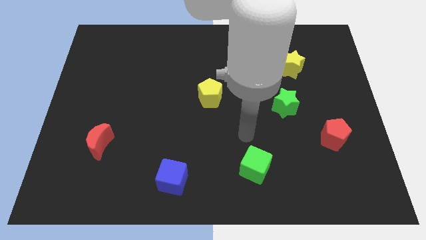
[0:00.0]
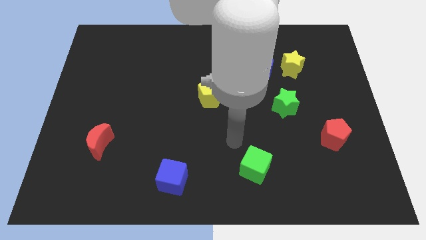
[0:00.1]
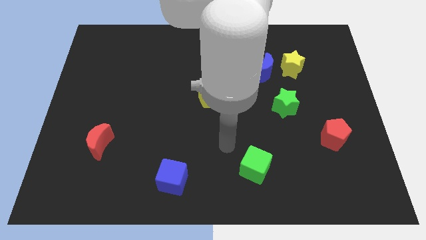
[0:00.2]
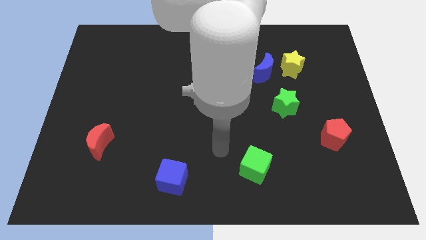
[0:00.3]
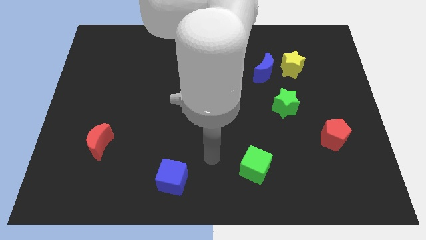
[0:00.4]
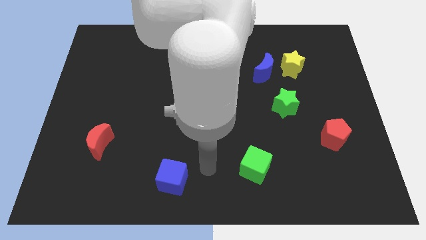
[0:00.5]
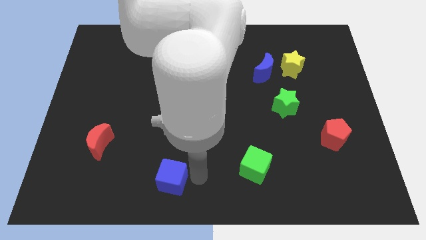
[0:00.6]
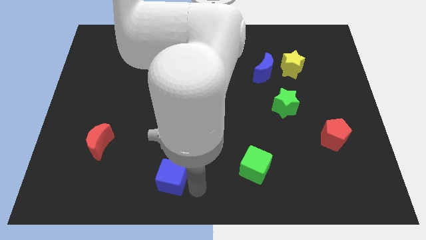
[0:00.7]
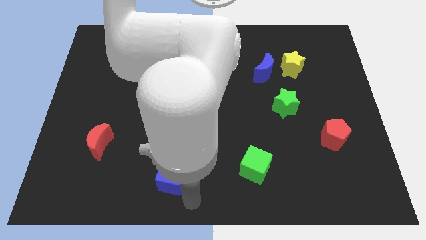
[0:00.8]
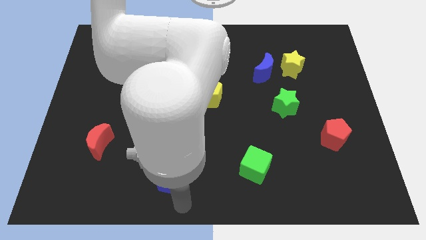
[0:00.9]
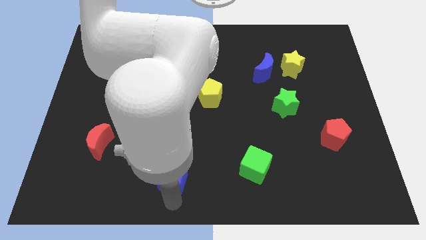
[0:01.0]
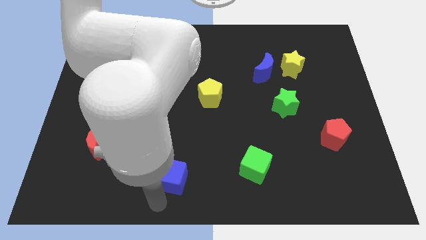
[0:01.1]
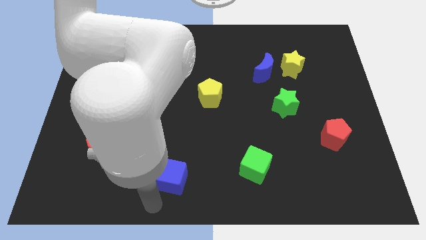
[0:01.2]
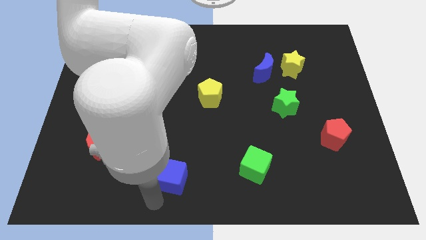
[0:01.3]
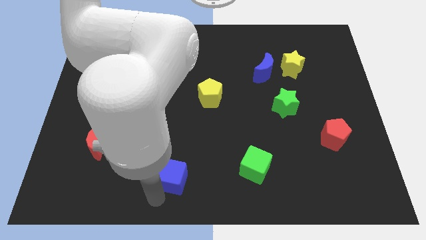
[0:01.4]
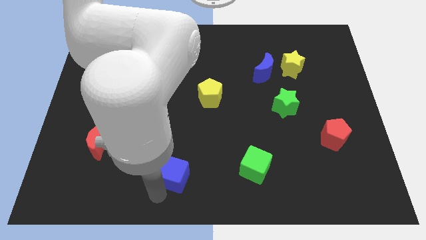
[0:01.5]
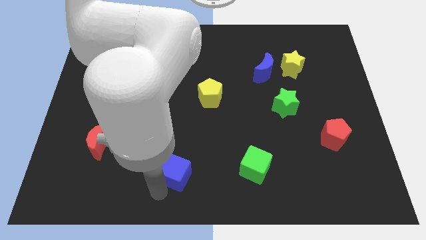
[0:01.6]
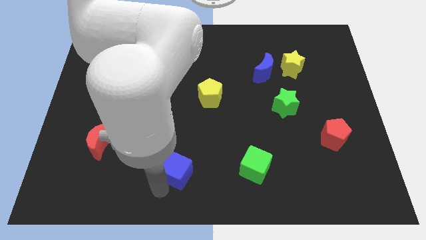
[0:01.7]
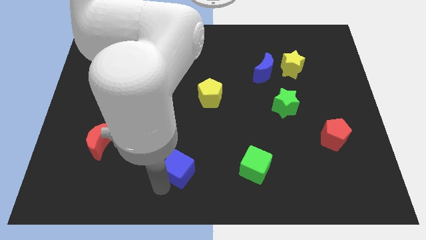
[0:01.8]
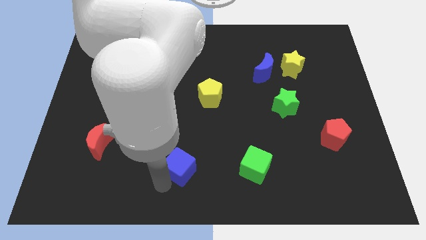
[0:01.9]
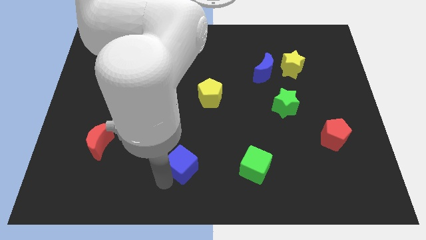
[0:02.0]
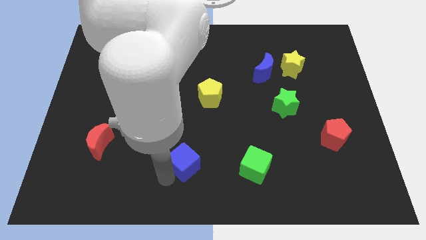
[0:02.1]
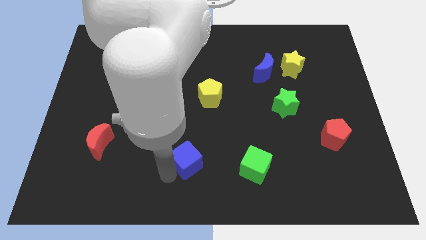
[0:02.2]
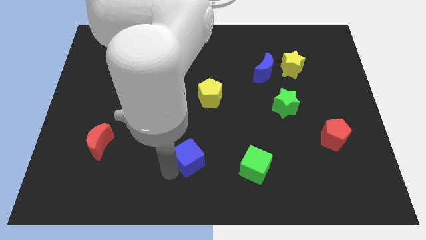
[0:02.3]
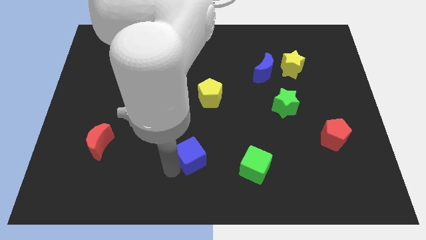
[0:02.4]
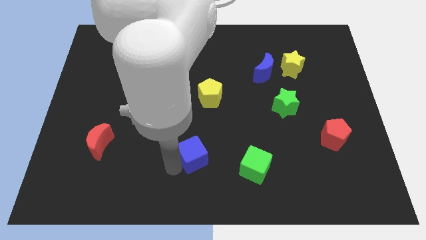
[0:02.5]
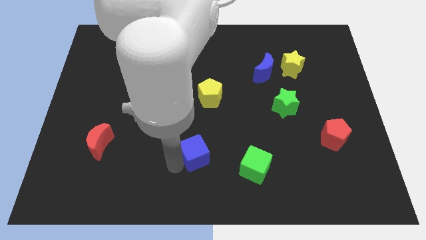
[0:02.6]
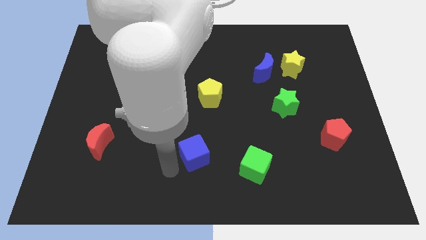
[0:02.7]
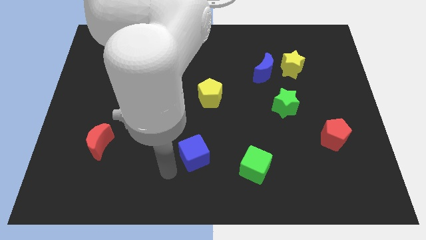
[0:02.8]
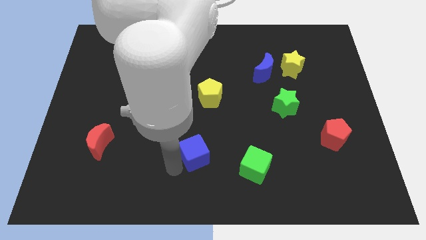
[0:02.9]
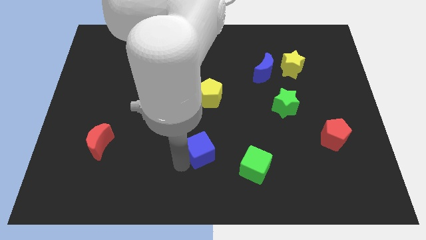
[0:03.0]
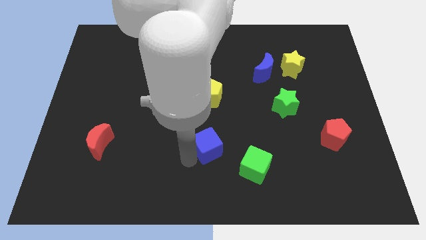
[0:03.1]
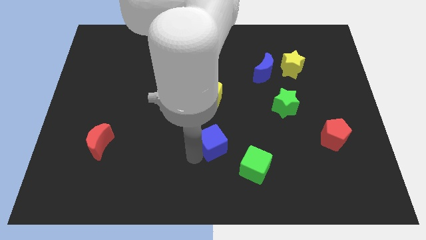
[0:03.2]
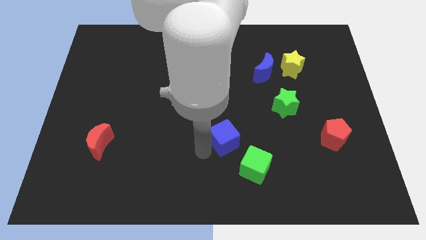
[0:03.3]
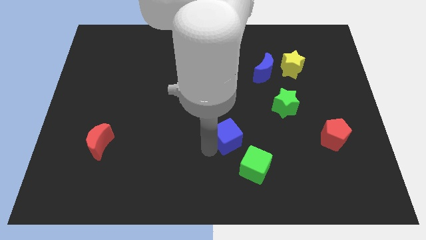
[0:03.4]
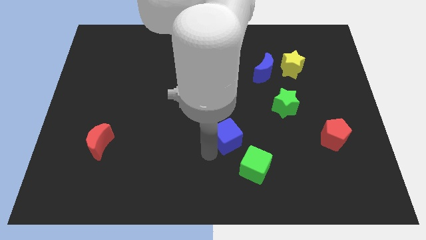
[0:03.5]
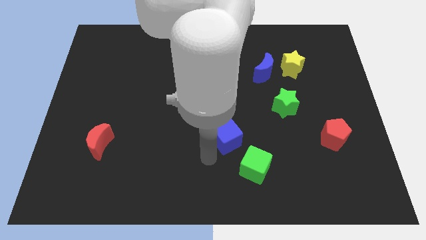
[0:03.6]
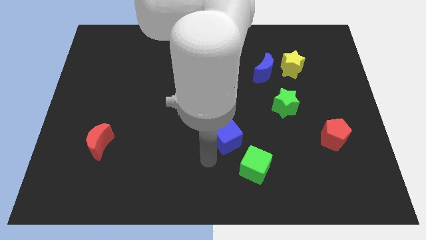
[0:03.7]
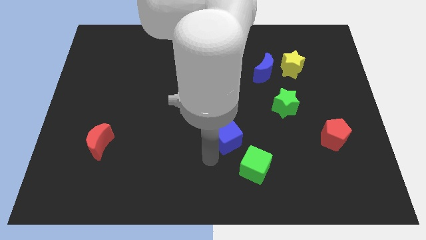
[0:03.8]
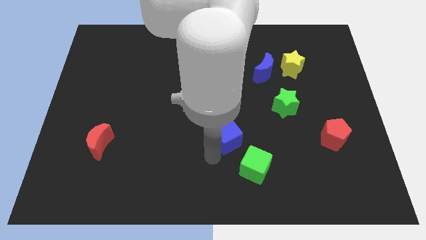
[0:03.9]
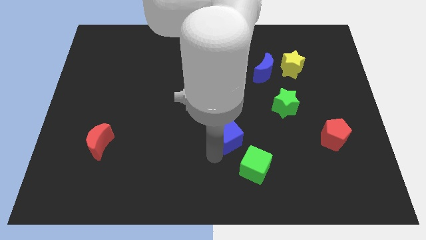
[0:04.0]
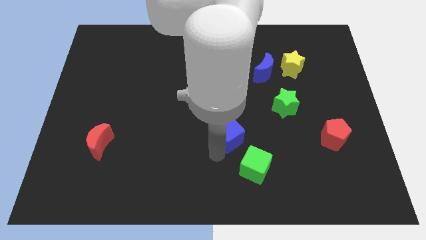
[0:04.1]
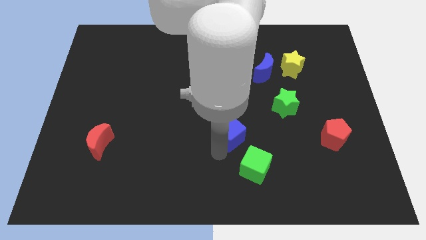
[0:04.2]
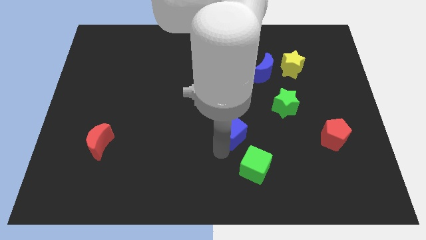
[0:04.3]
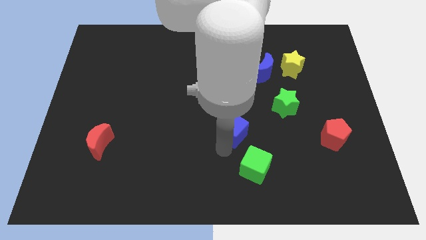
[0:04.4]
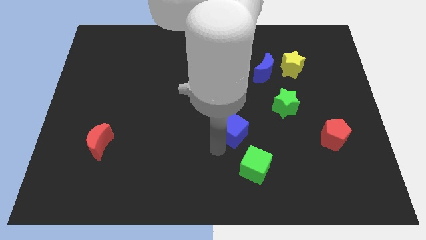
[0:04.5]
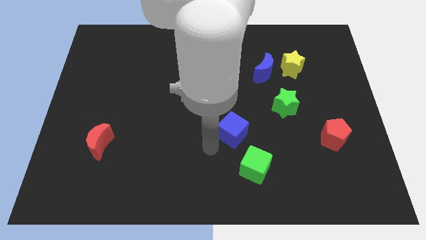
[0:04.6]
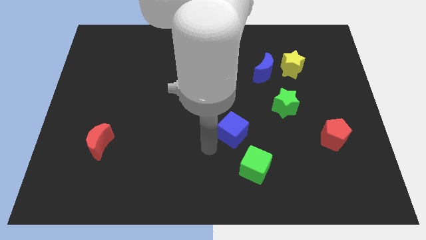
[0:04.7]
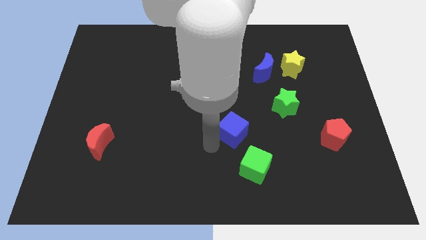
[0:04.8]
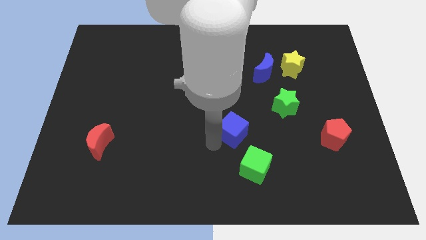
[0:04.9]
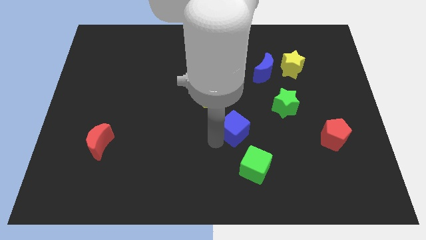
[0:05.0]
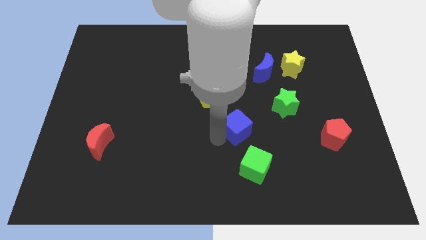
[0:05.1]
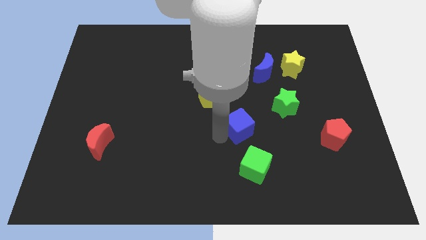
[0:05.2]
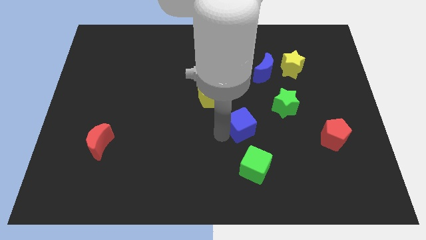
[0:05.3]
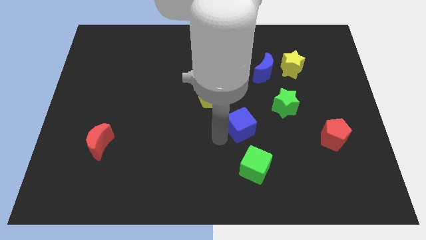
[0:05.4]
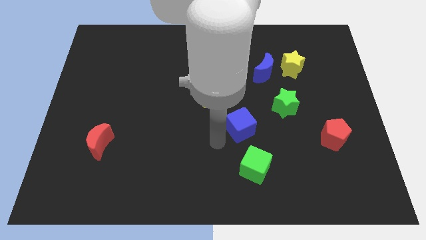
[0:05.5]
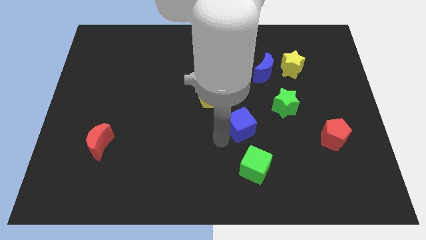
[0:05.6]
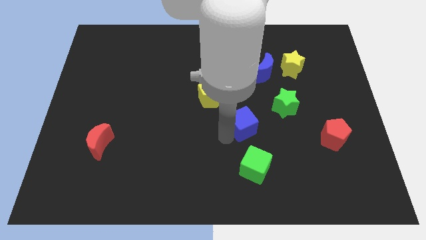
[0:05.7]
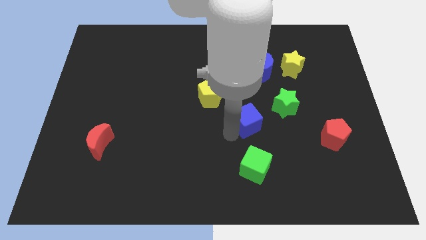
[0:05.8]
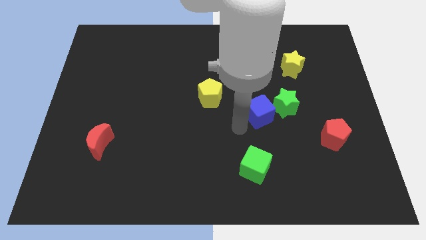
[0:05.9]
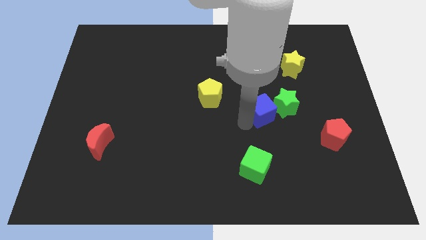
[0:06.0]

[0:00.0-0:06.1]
put the blue cube next to the green star

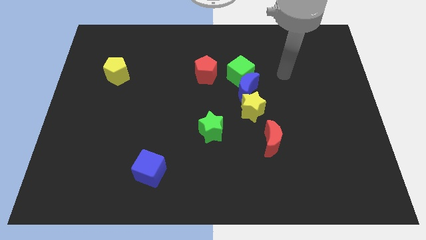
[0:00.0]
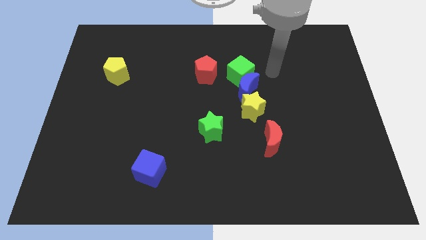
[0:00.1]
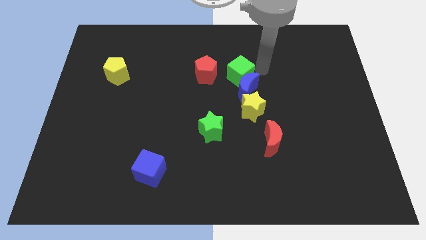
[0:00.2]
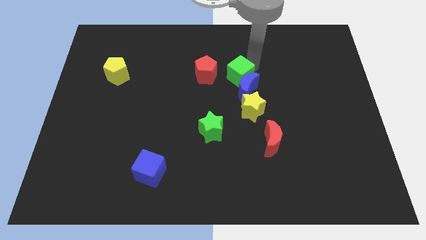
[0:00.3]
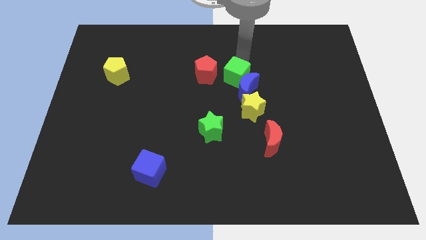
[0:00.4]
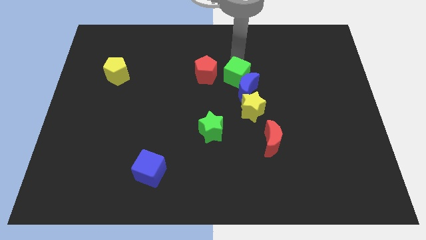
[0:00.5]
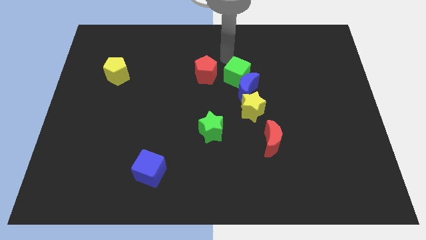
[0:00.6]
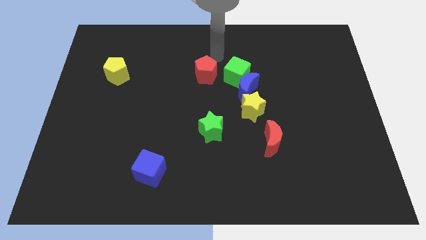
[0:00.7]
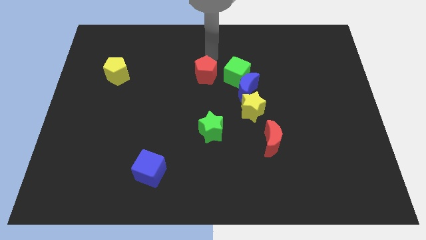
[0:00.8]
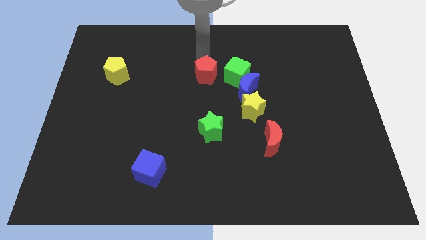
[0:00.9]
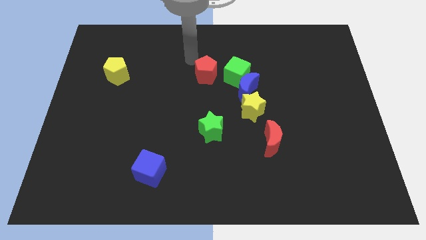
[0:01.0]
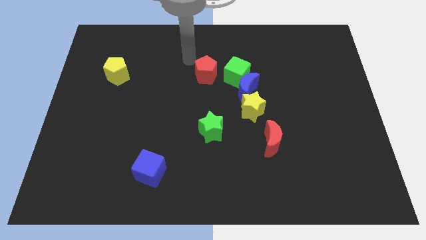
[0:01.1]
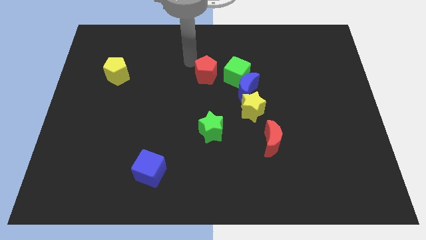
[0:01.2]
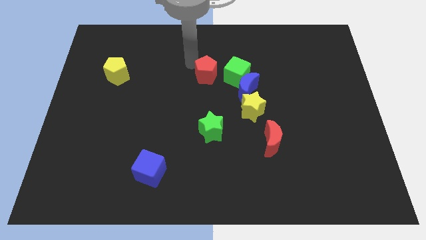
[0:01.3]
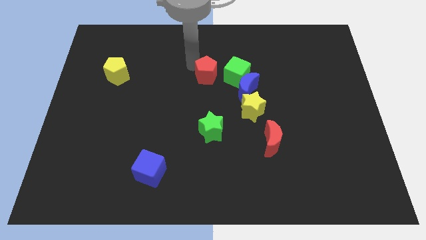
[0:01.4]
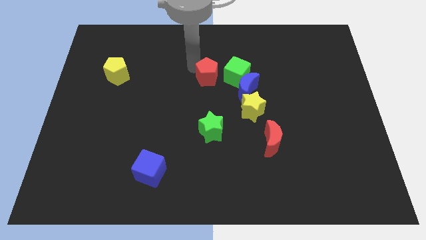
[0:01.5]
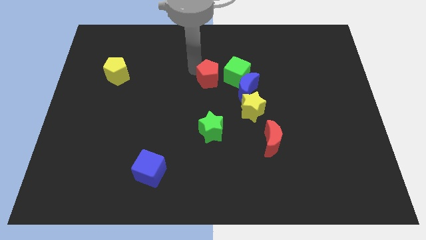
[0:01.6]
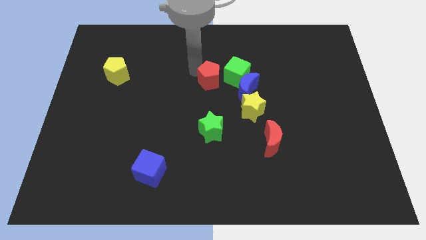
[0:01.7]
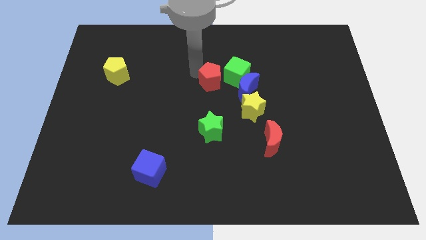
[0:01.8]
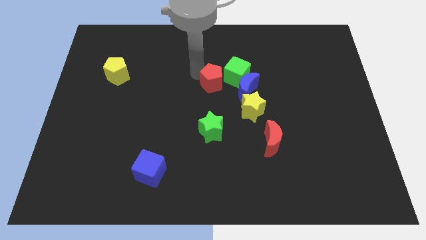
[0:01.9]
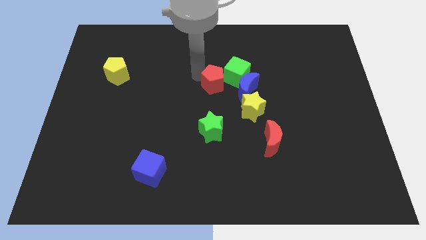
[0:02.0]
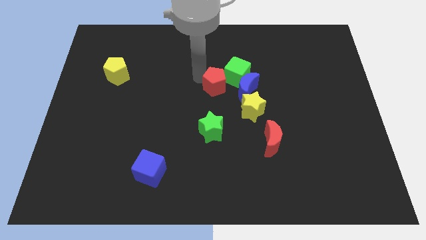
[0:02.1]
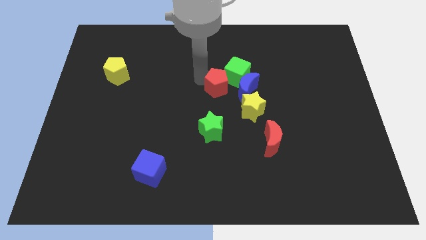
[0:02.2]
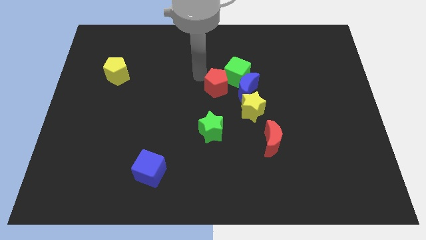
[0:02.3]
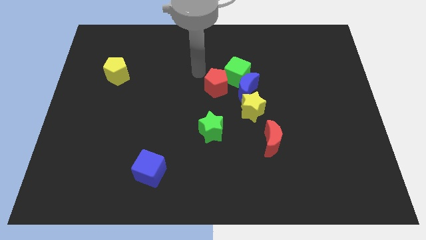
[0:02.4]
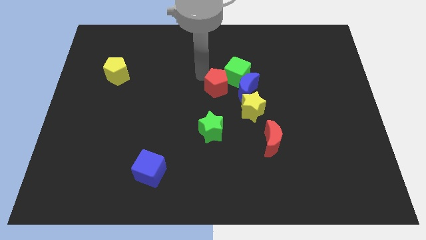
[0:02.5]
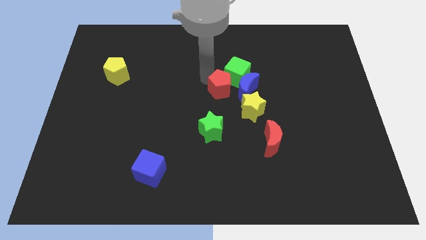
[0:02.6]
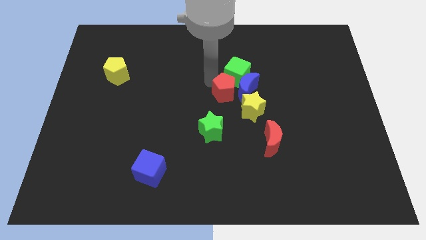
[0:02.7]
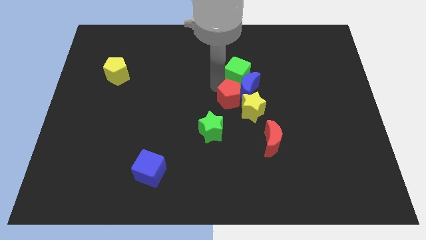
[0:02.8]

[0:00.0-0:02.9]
push the red pentagon close to the yellow star
